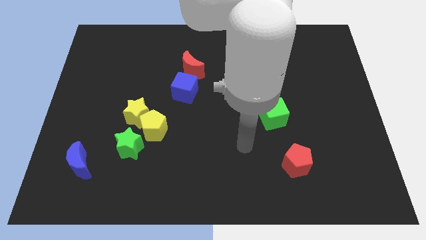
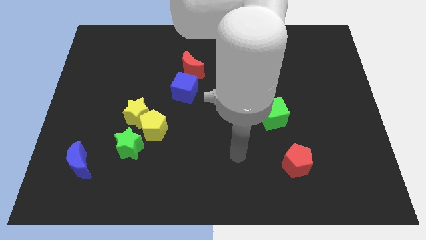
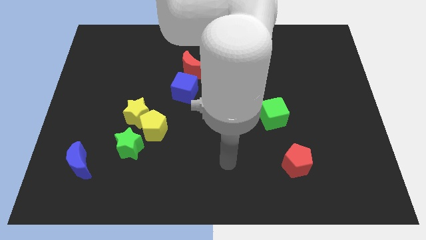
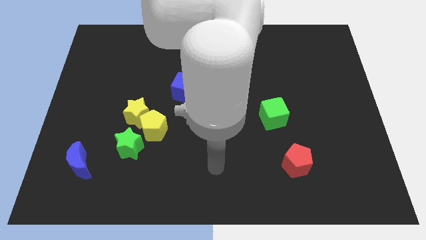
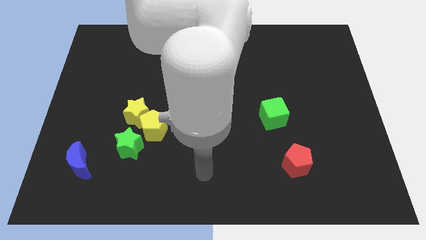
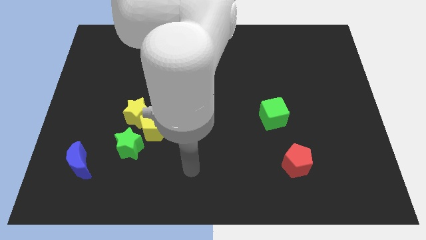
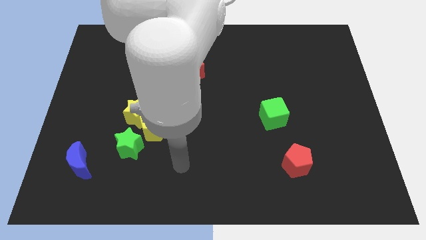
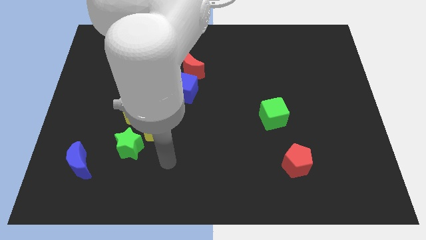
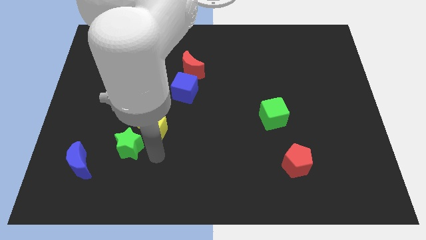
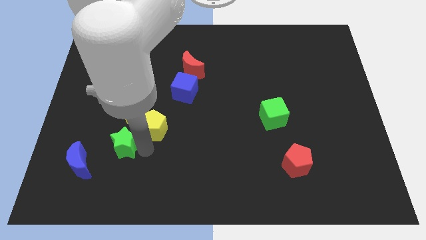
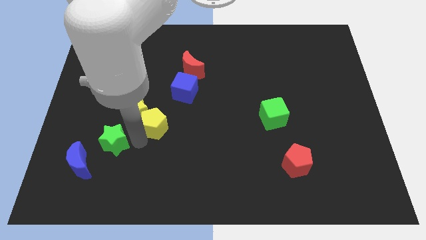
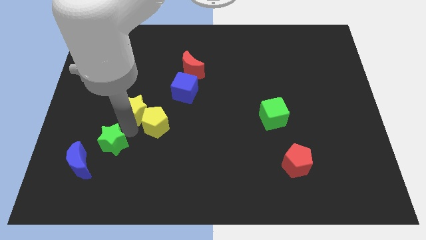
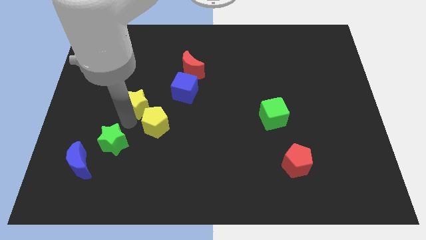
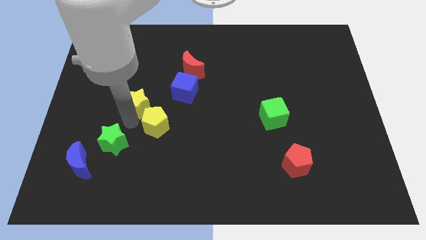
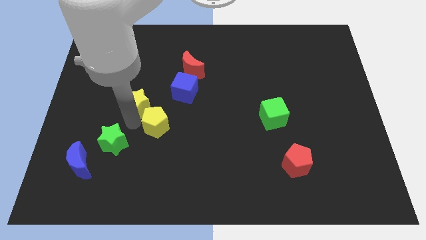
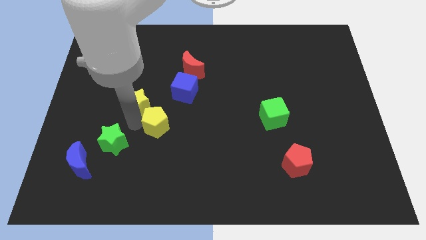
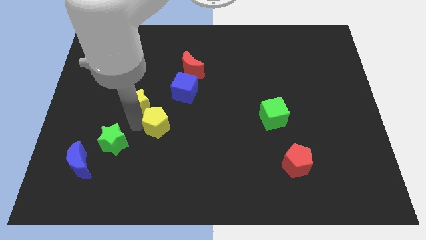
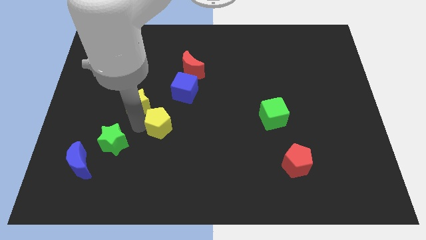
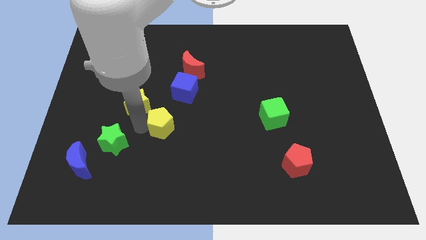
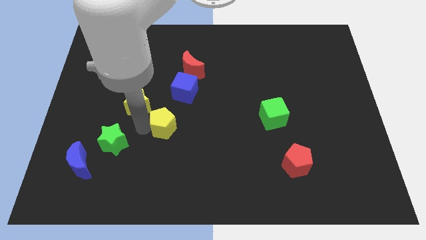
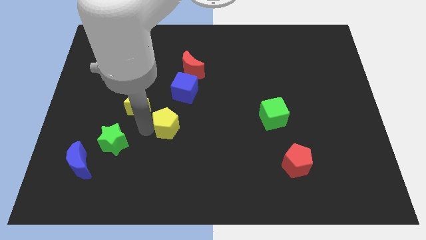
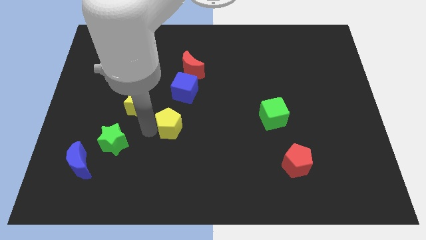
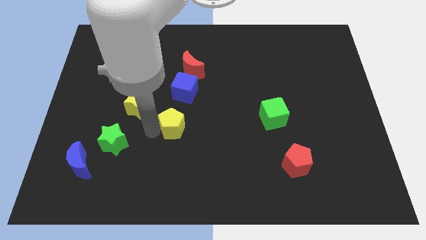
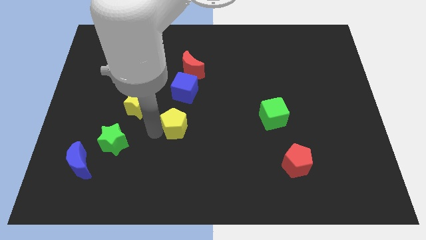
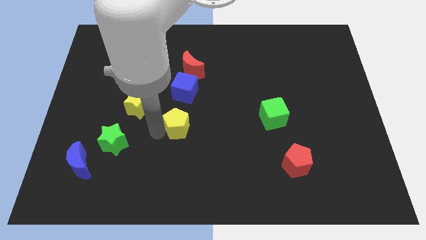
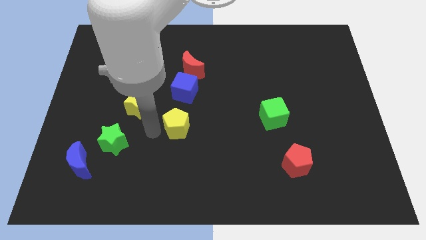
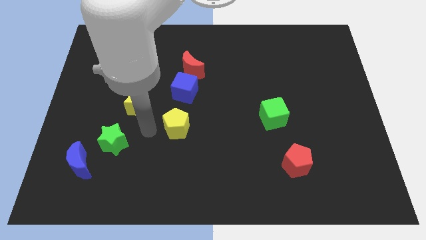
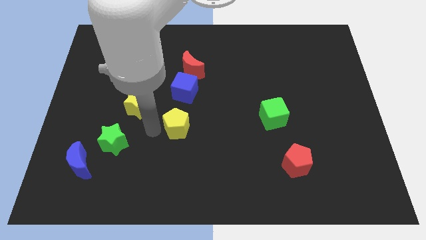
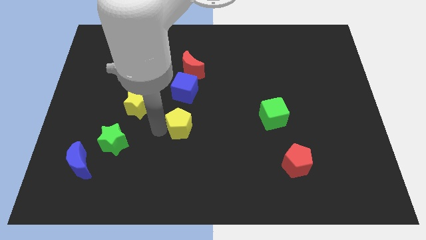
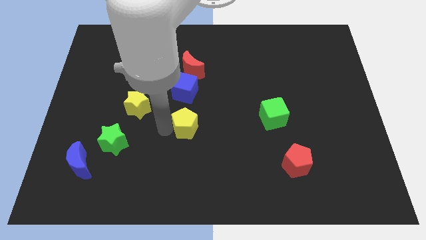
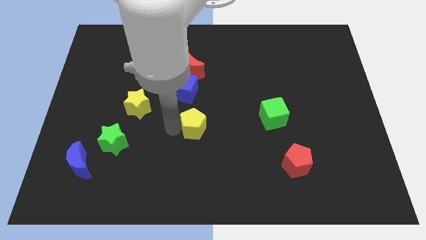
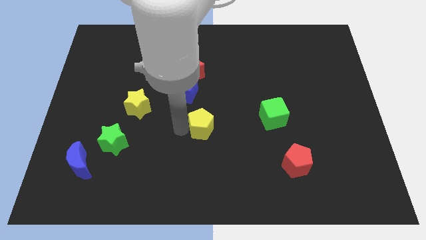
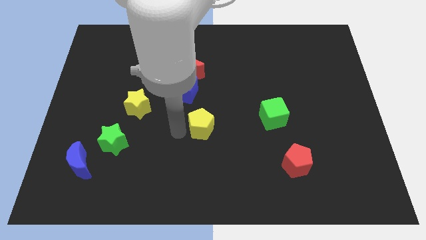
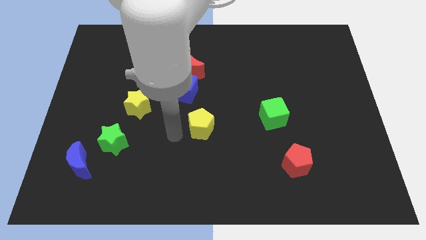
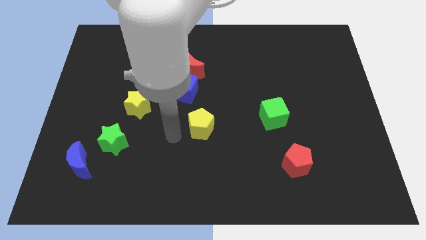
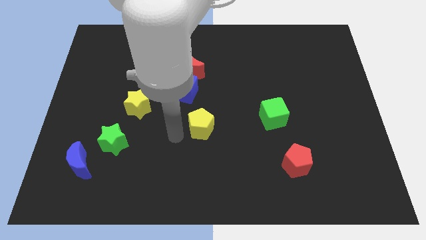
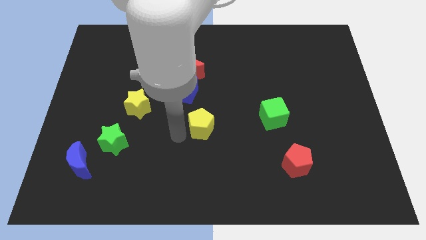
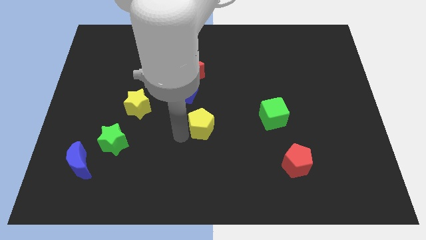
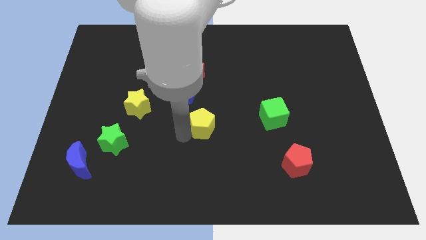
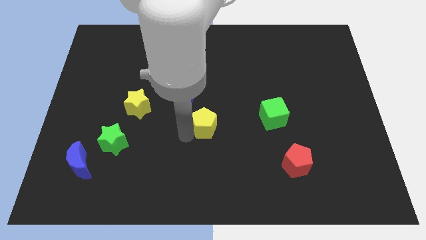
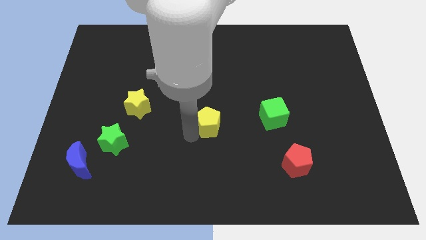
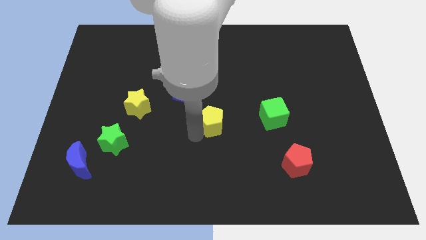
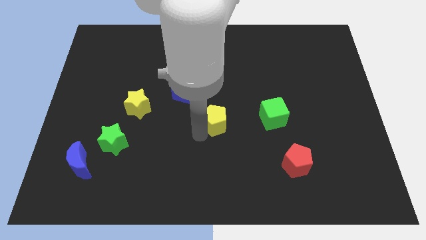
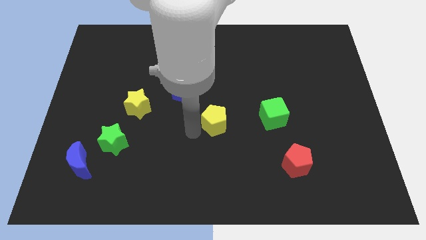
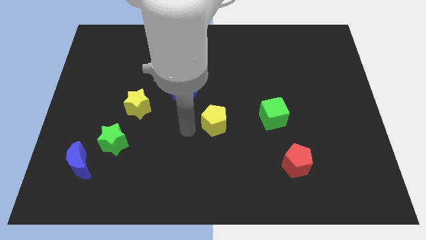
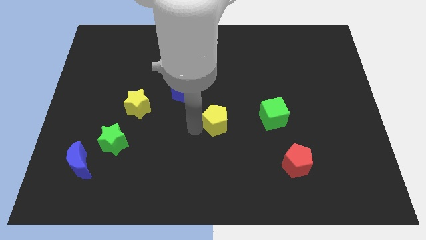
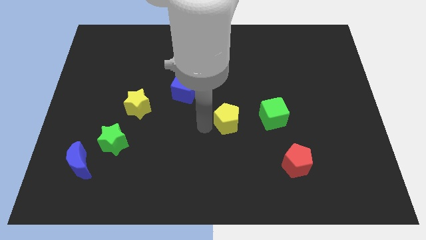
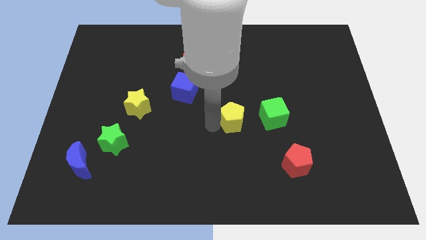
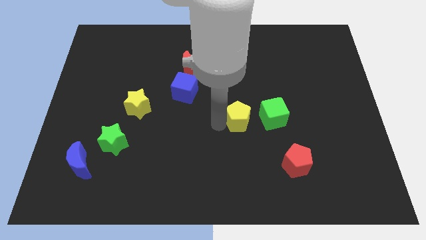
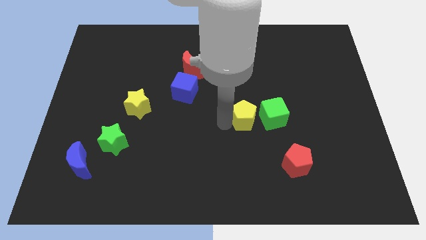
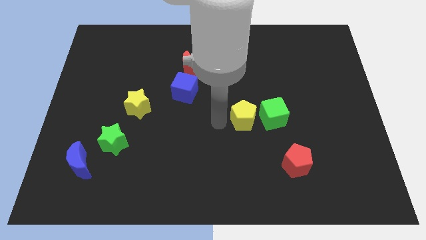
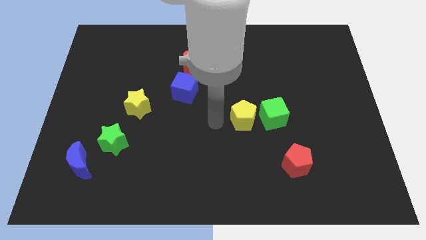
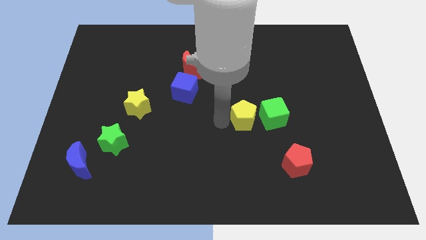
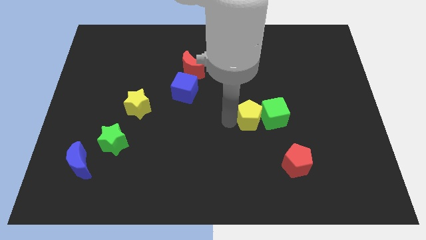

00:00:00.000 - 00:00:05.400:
move the yellow pentagon close to the green cube

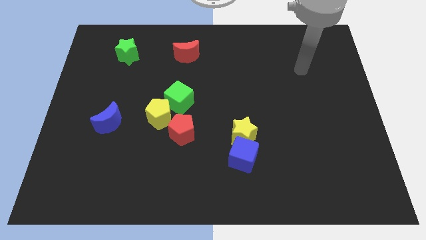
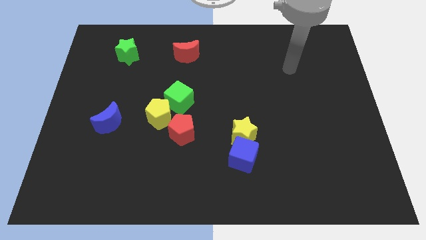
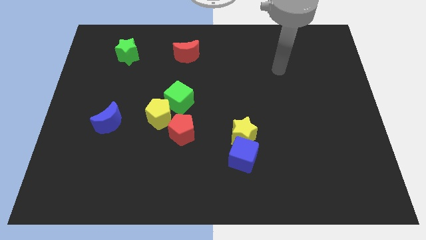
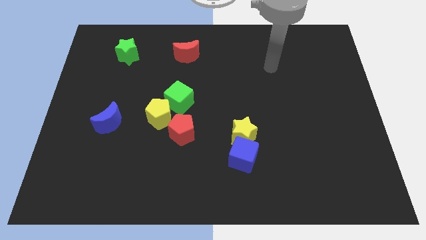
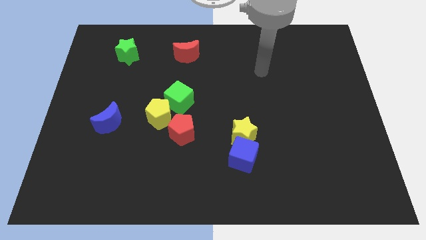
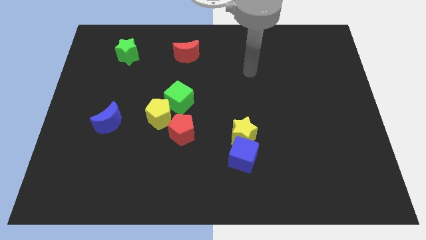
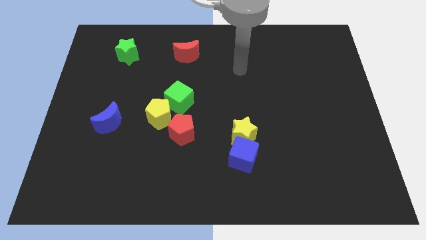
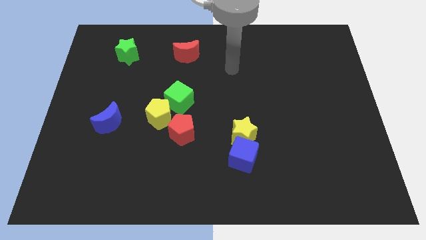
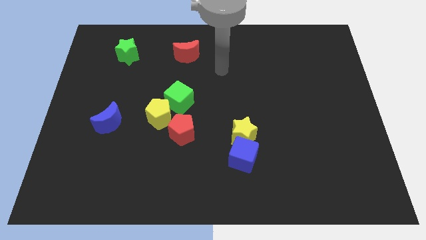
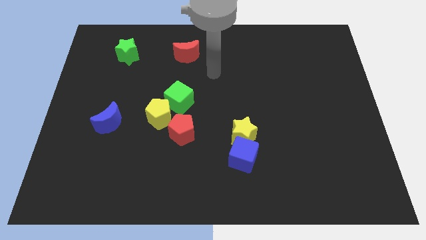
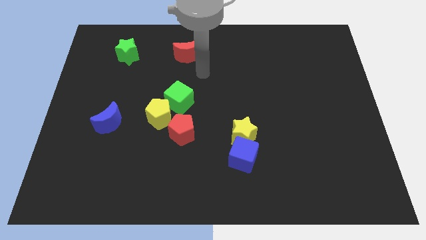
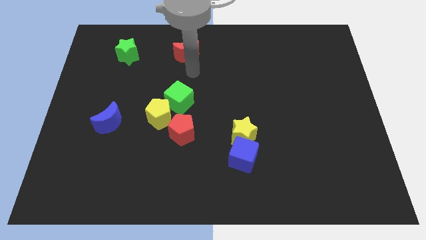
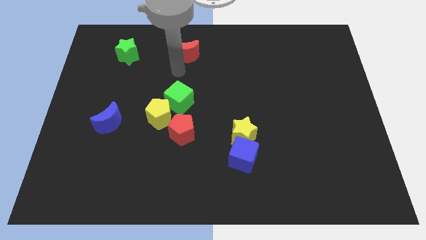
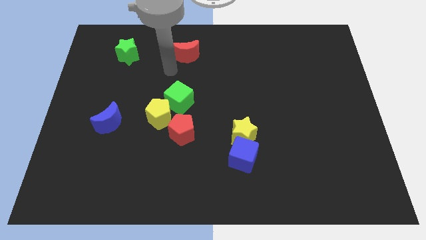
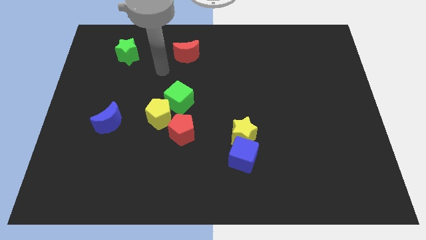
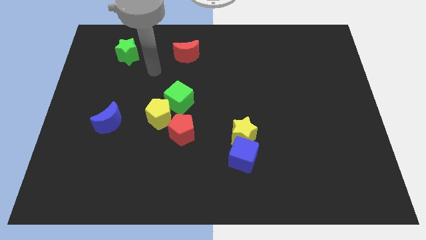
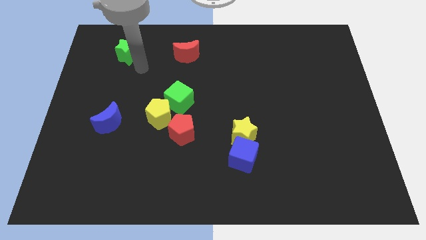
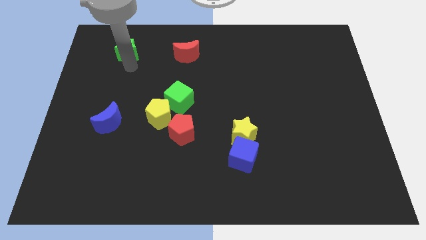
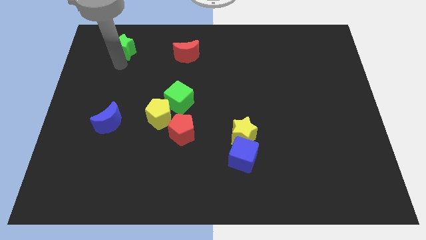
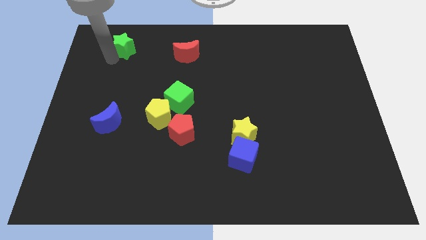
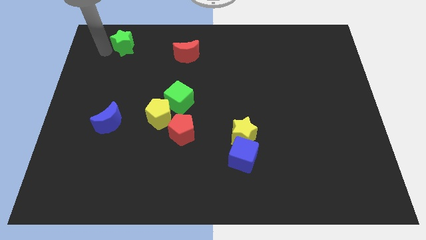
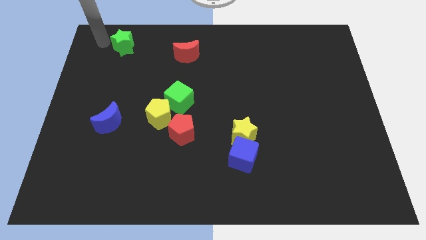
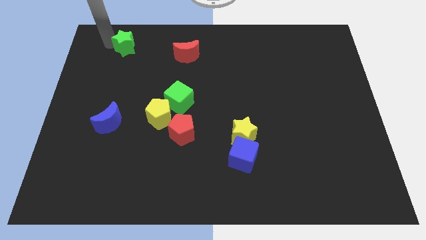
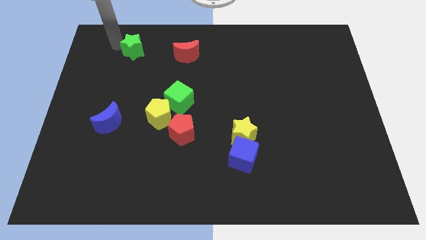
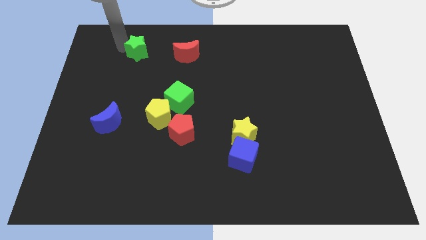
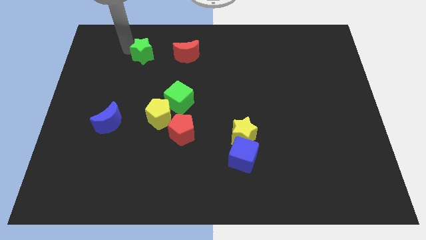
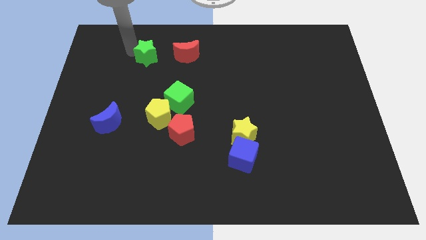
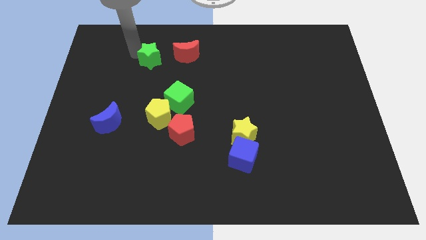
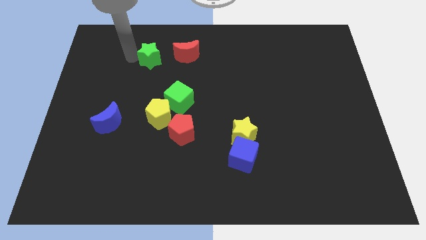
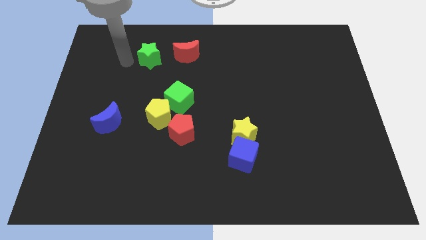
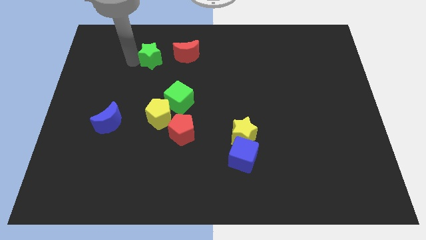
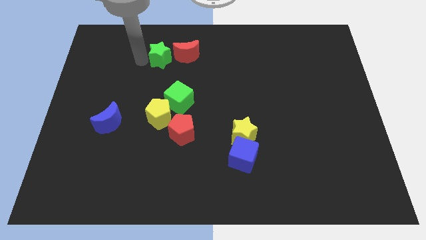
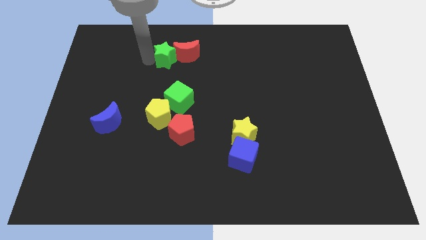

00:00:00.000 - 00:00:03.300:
push the green star towards the red moon
